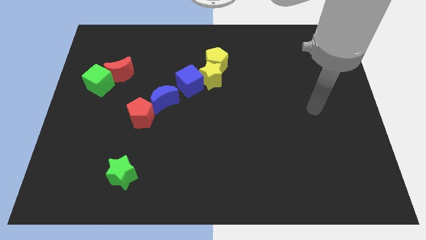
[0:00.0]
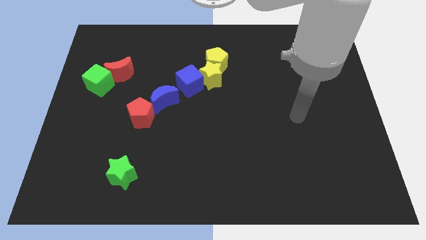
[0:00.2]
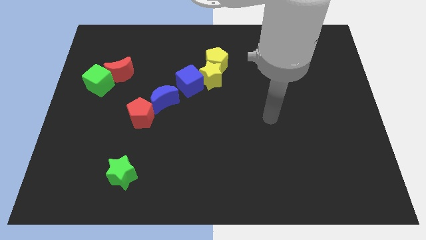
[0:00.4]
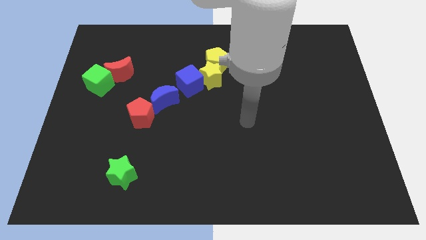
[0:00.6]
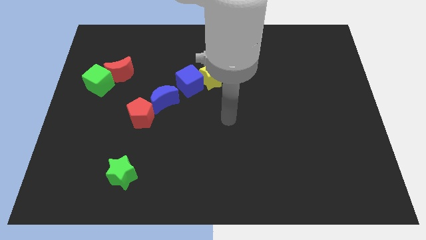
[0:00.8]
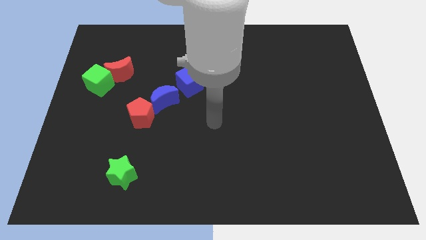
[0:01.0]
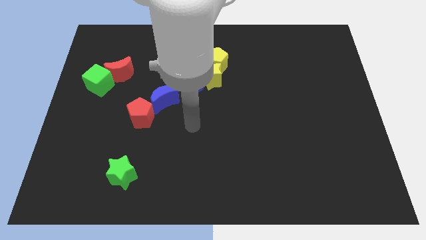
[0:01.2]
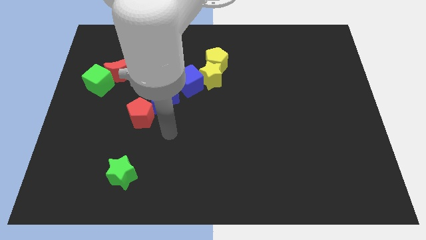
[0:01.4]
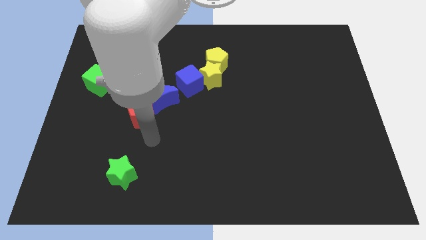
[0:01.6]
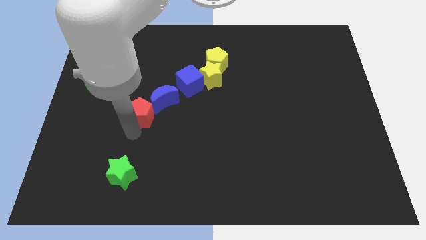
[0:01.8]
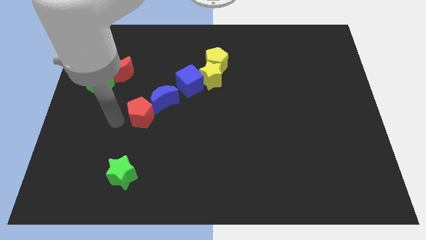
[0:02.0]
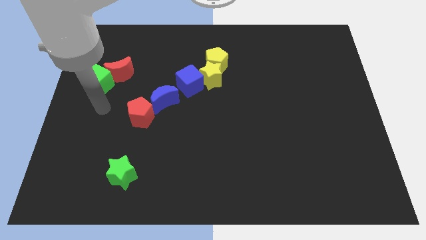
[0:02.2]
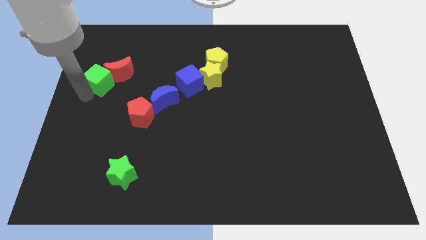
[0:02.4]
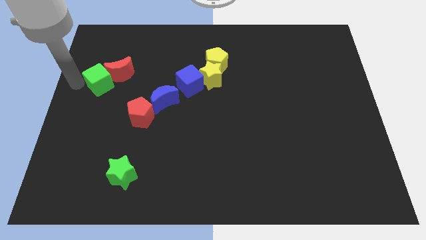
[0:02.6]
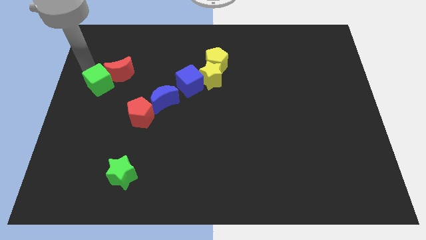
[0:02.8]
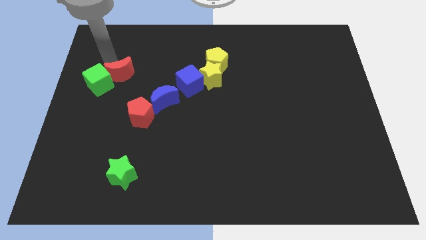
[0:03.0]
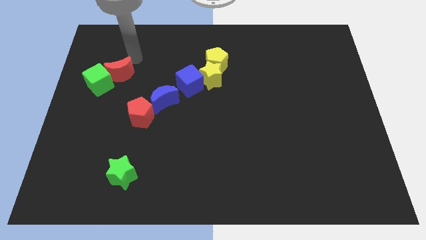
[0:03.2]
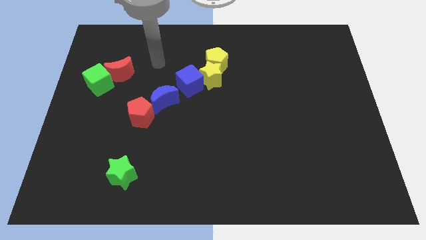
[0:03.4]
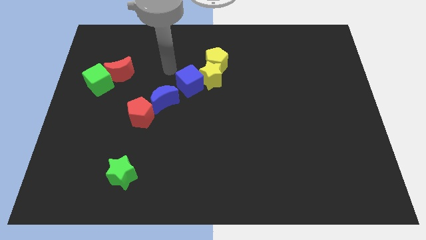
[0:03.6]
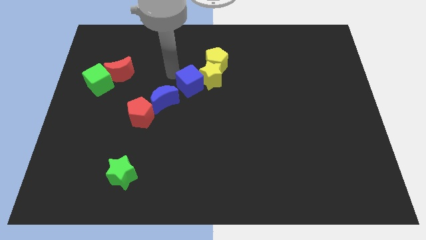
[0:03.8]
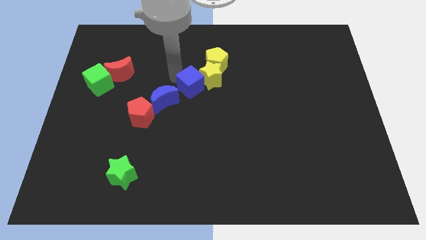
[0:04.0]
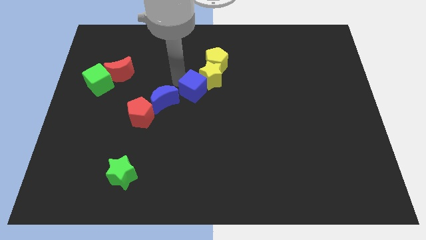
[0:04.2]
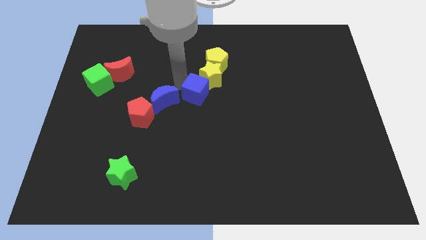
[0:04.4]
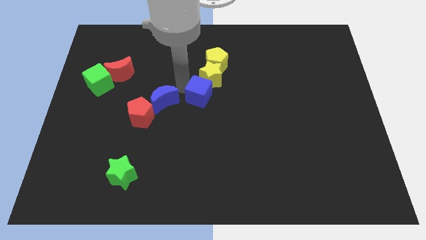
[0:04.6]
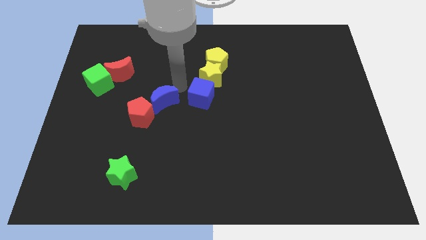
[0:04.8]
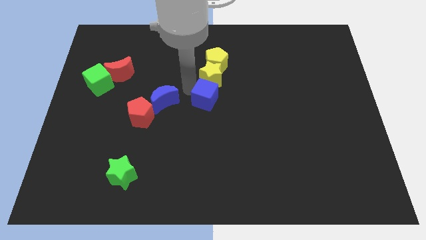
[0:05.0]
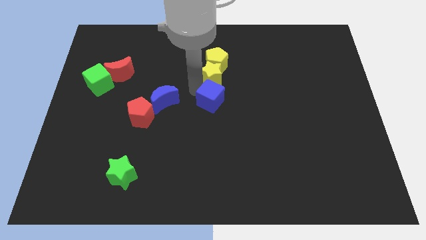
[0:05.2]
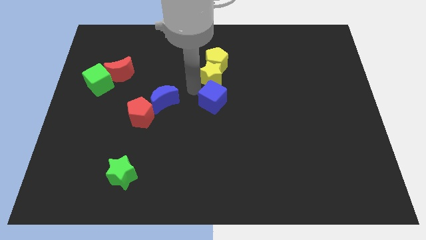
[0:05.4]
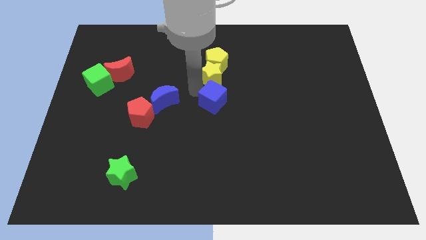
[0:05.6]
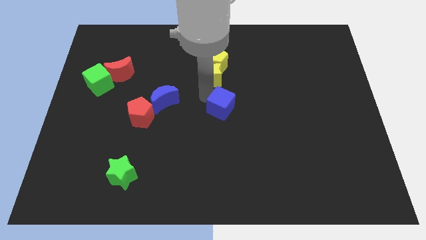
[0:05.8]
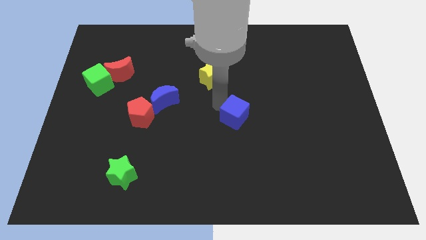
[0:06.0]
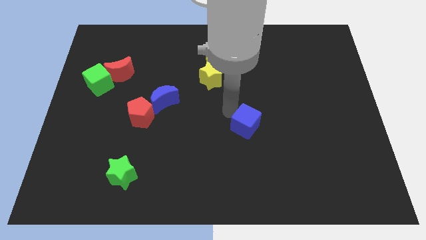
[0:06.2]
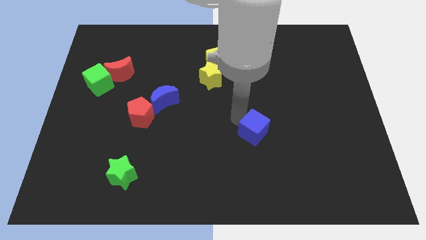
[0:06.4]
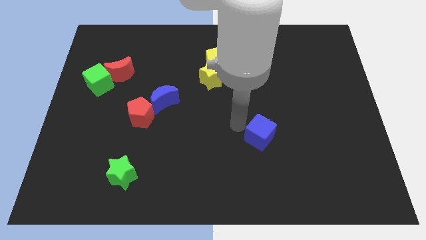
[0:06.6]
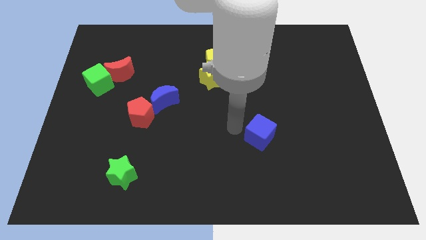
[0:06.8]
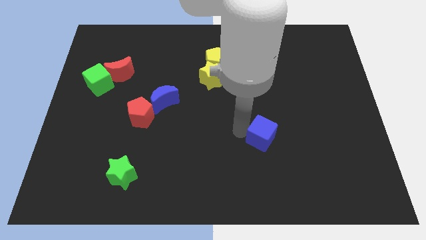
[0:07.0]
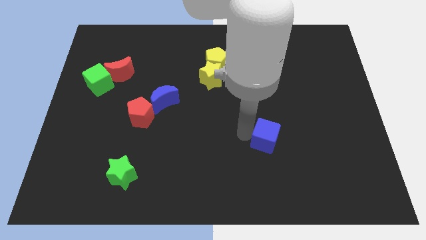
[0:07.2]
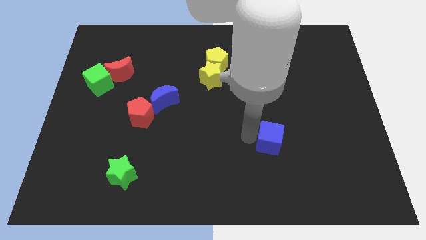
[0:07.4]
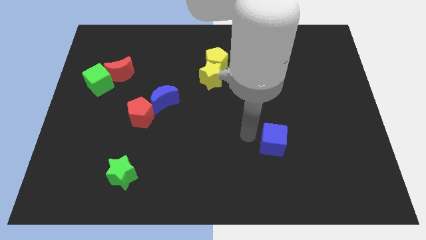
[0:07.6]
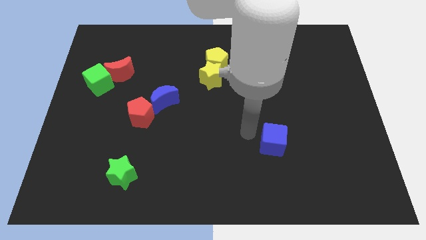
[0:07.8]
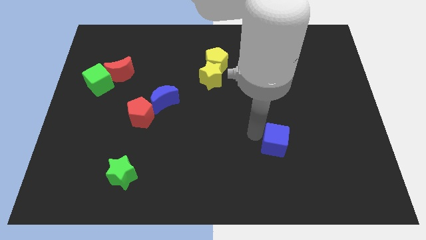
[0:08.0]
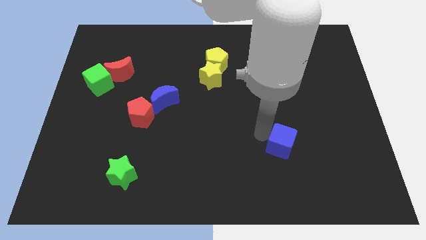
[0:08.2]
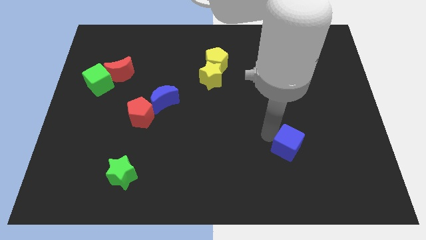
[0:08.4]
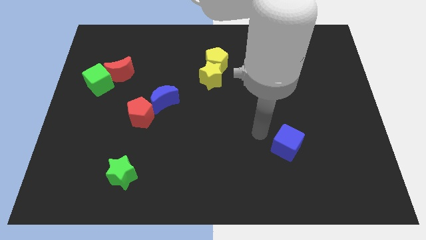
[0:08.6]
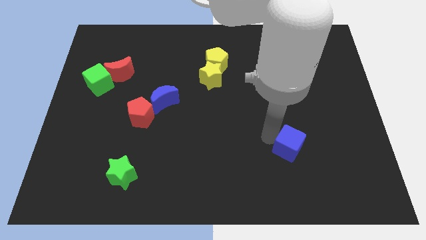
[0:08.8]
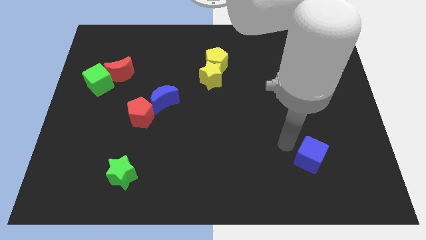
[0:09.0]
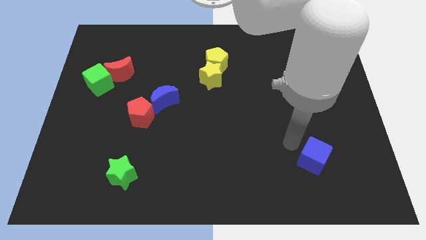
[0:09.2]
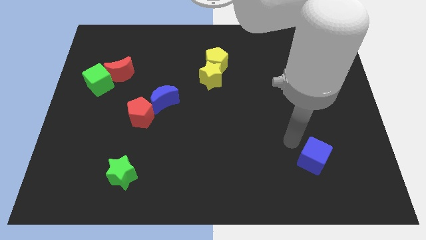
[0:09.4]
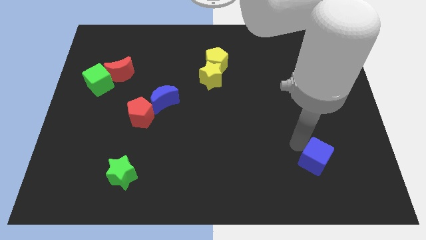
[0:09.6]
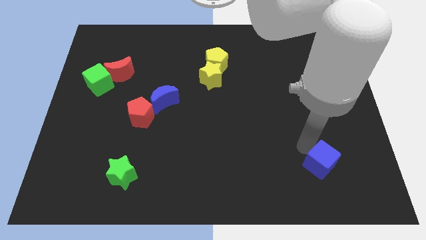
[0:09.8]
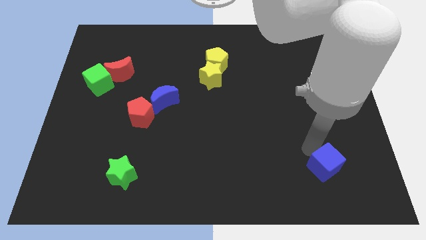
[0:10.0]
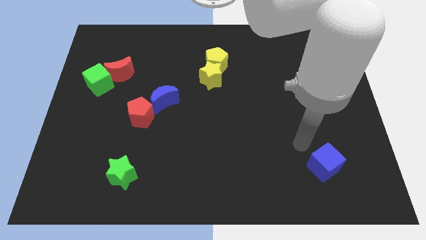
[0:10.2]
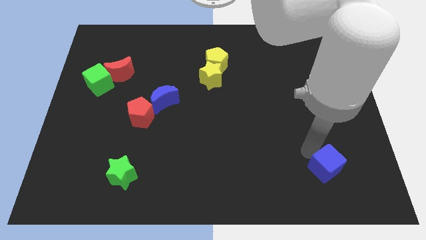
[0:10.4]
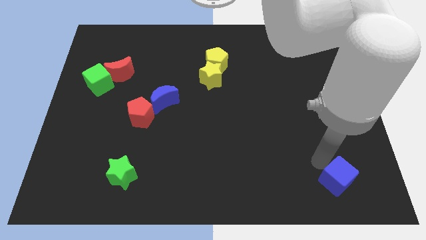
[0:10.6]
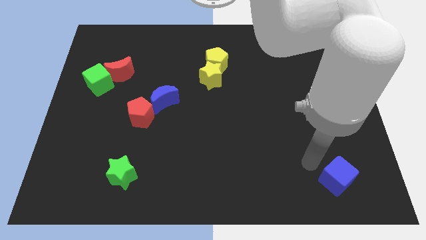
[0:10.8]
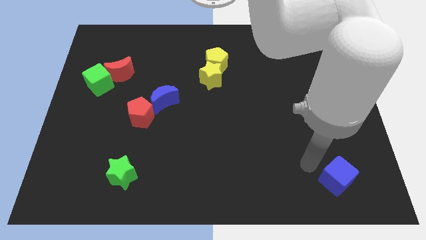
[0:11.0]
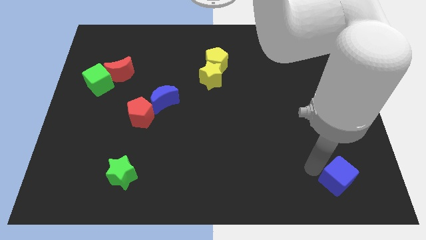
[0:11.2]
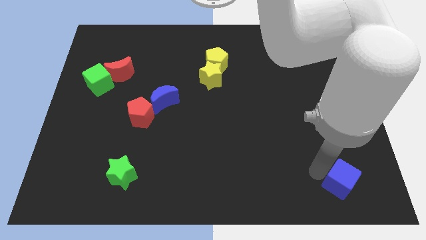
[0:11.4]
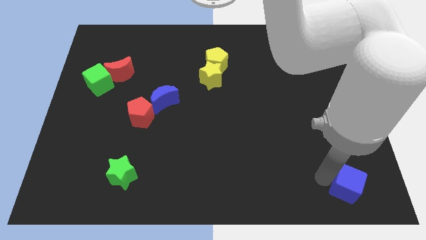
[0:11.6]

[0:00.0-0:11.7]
push the blue cube to the lower right corner

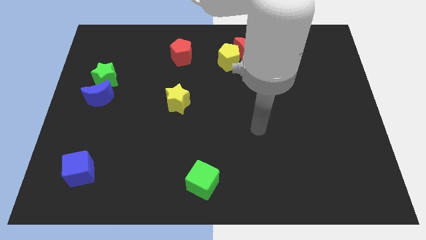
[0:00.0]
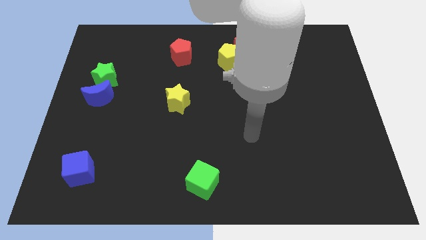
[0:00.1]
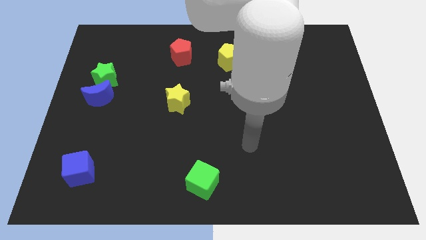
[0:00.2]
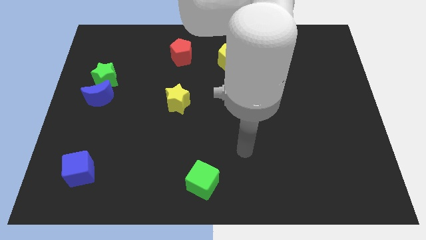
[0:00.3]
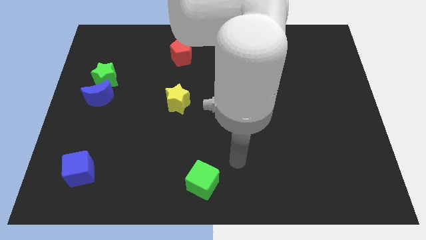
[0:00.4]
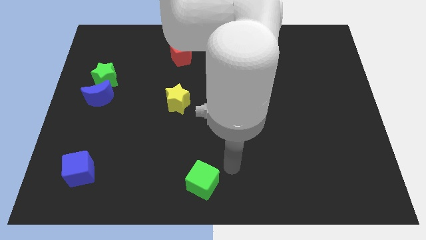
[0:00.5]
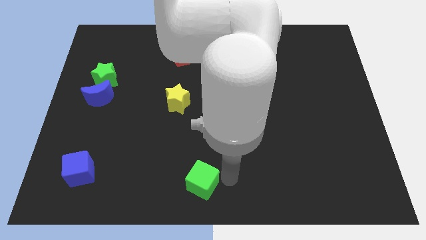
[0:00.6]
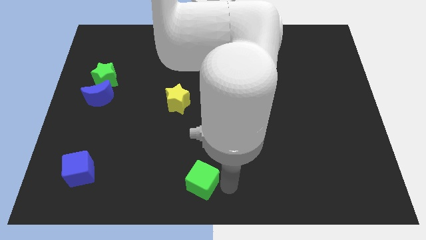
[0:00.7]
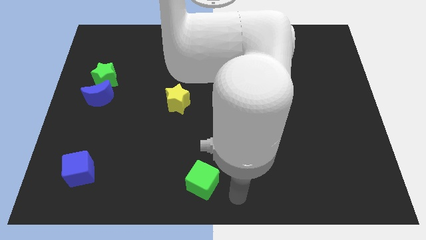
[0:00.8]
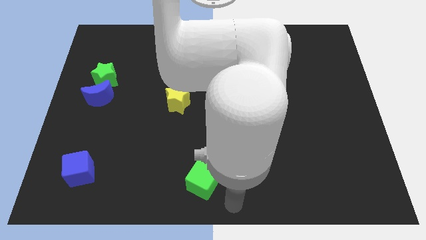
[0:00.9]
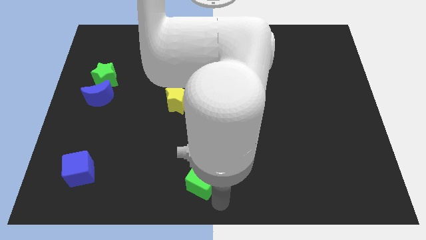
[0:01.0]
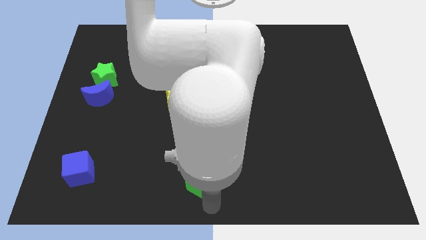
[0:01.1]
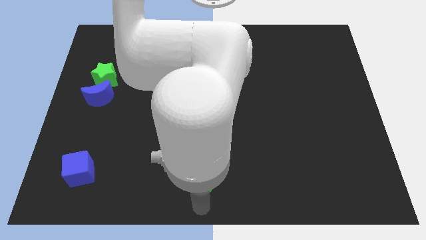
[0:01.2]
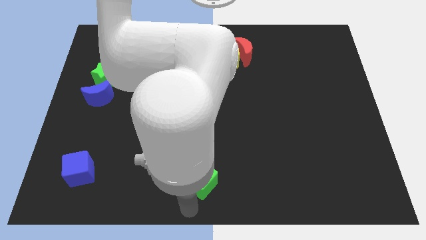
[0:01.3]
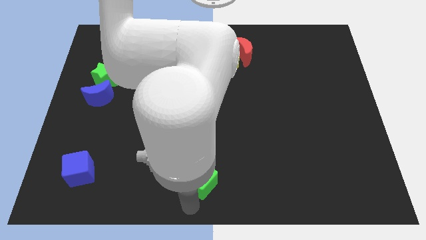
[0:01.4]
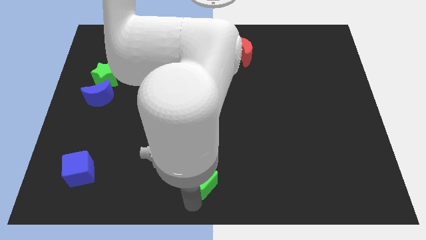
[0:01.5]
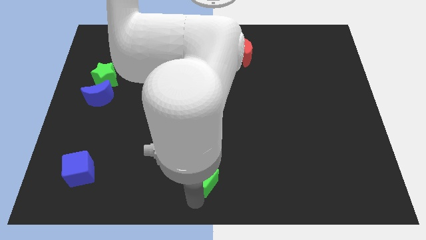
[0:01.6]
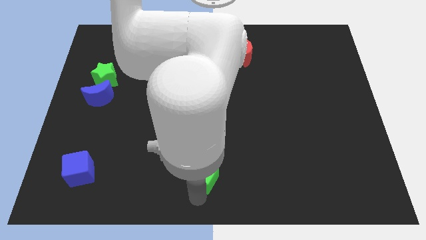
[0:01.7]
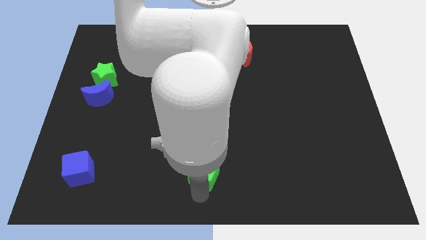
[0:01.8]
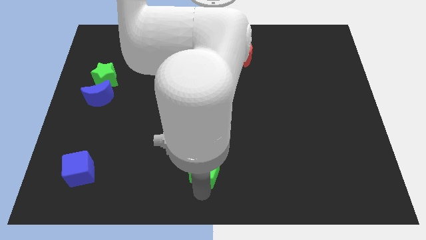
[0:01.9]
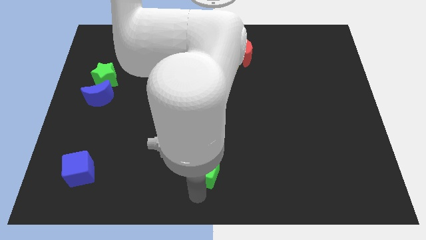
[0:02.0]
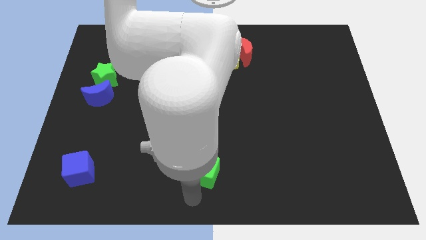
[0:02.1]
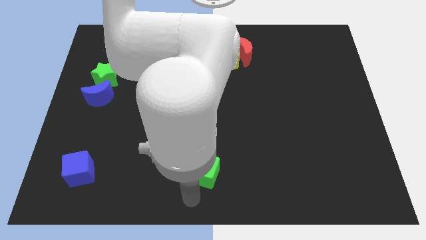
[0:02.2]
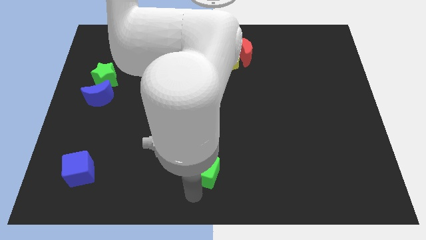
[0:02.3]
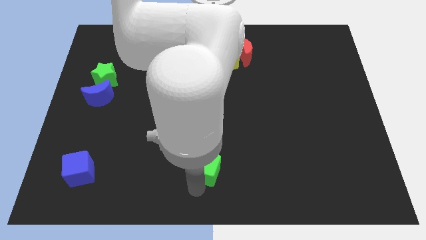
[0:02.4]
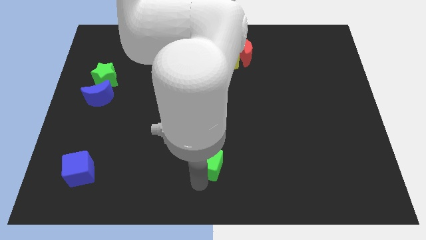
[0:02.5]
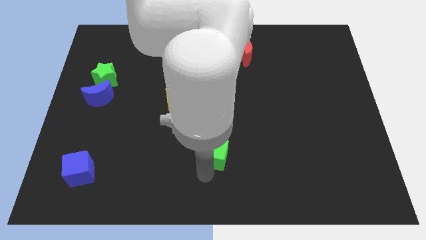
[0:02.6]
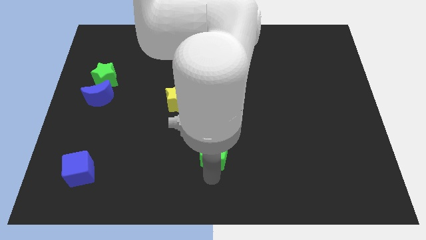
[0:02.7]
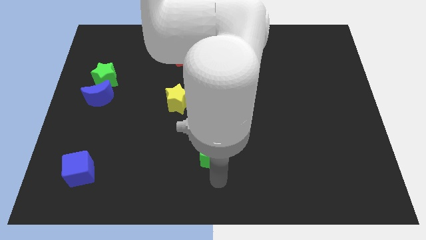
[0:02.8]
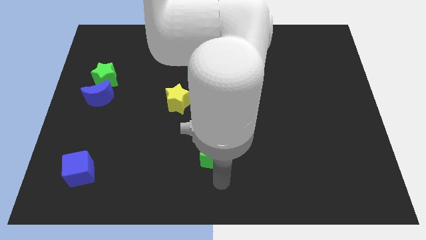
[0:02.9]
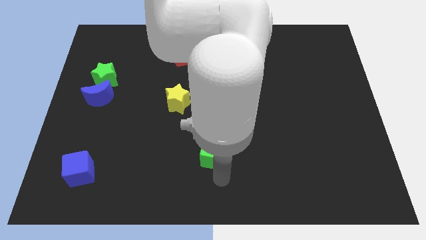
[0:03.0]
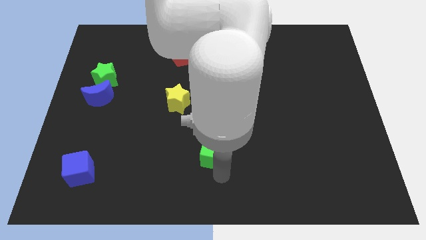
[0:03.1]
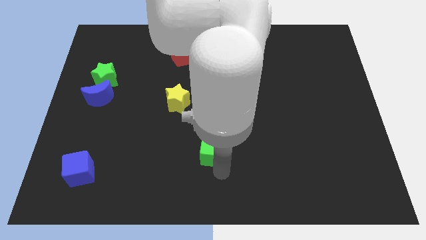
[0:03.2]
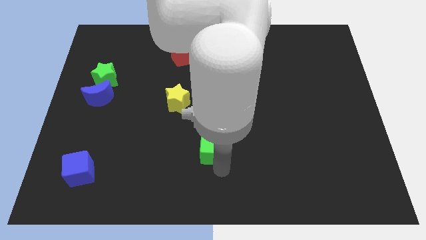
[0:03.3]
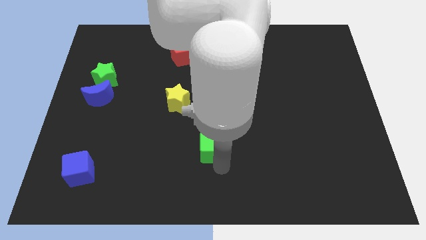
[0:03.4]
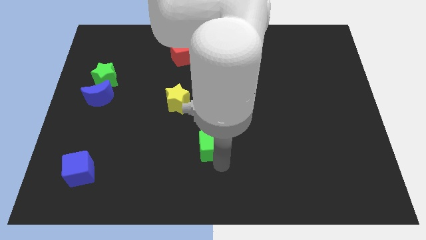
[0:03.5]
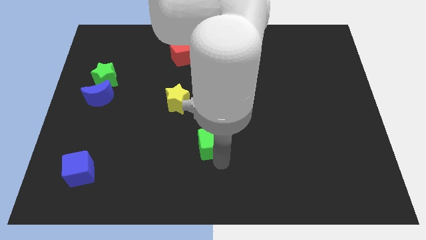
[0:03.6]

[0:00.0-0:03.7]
move the green cube to the center of the board
